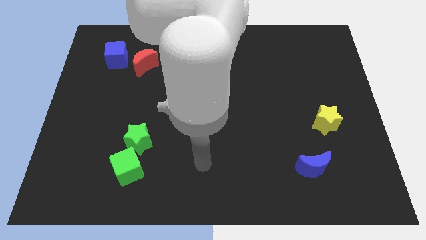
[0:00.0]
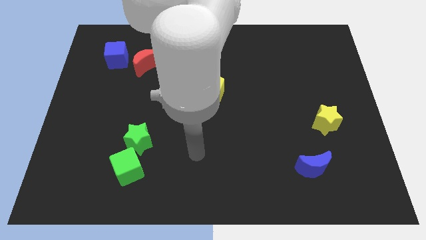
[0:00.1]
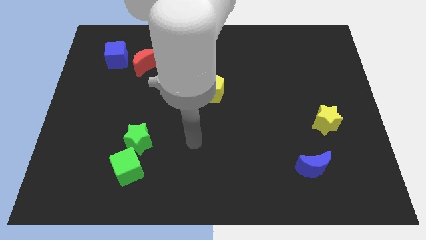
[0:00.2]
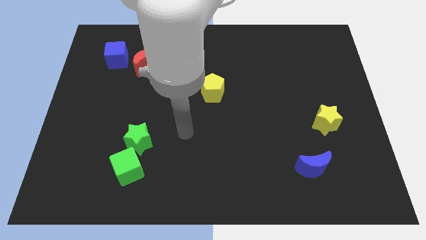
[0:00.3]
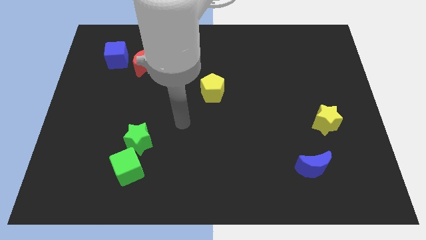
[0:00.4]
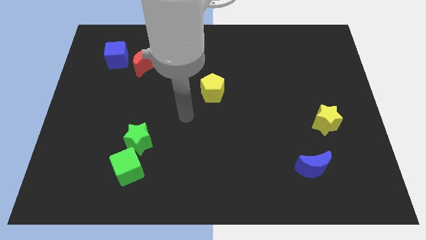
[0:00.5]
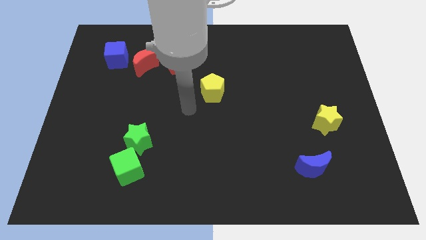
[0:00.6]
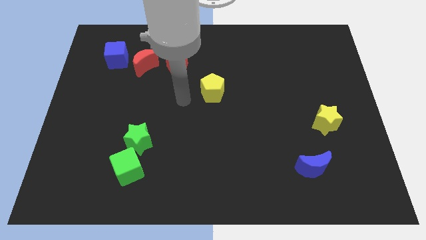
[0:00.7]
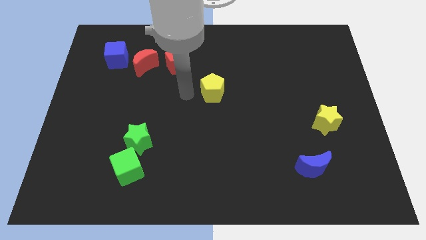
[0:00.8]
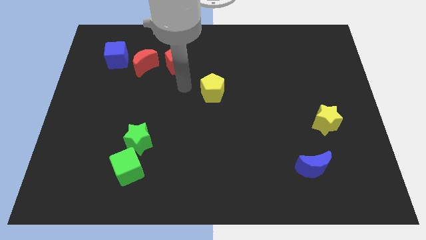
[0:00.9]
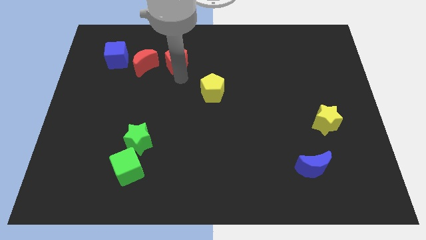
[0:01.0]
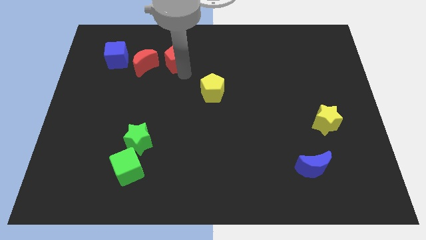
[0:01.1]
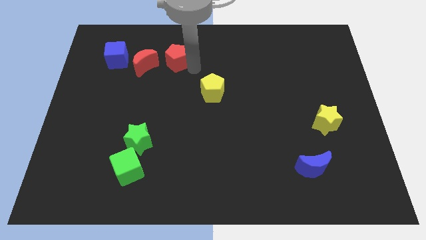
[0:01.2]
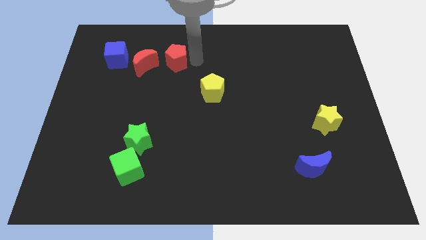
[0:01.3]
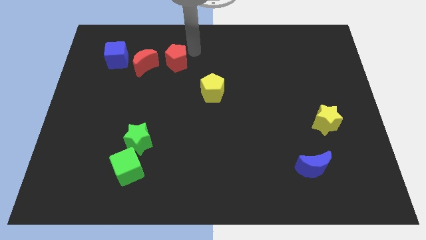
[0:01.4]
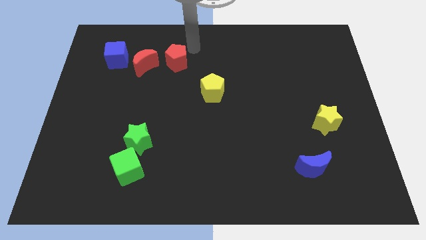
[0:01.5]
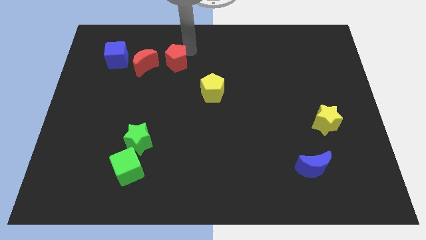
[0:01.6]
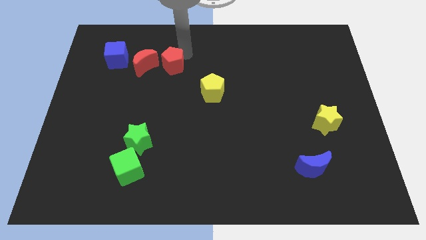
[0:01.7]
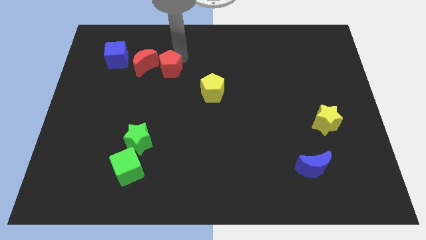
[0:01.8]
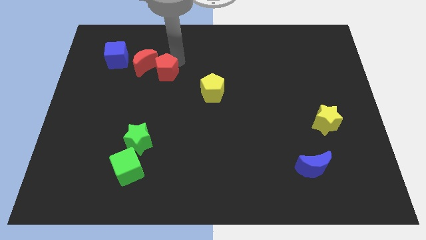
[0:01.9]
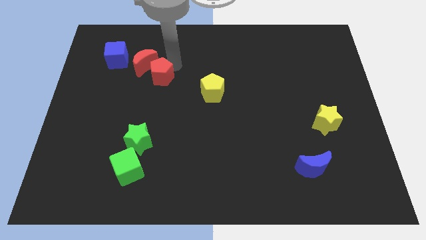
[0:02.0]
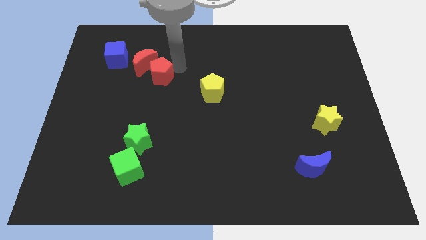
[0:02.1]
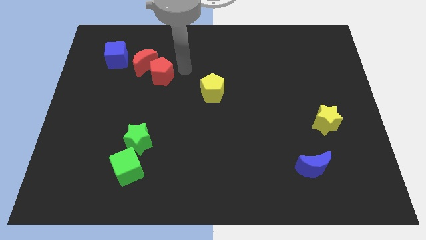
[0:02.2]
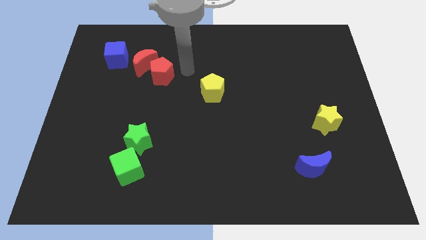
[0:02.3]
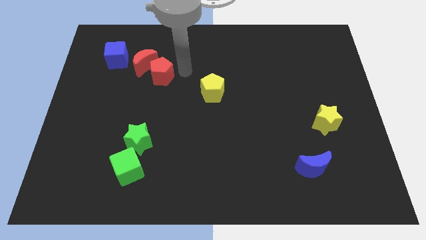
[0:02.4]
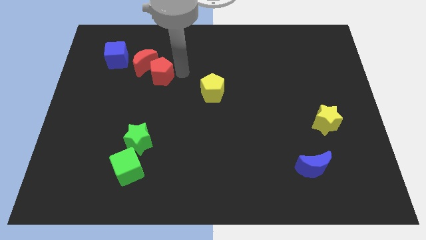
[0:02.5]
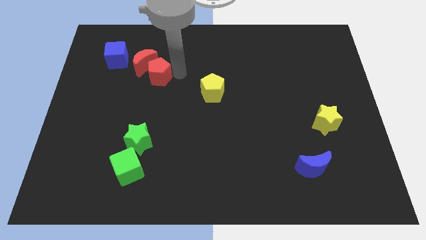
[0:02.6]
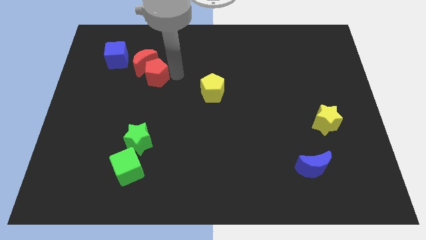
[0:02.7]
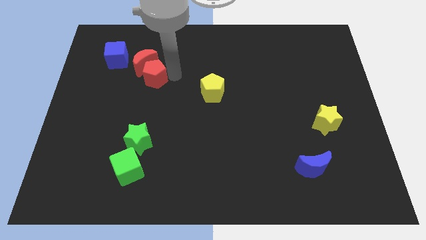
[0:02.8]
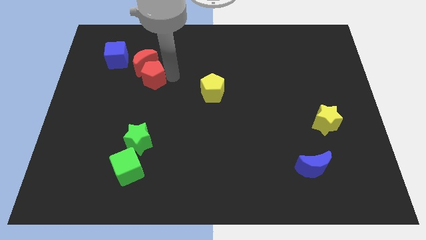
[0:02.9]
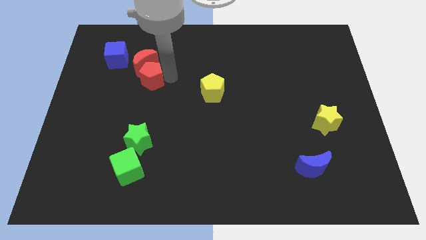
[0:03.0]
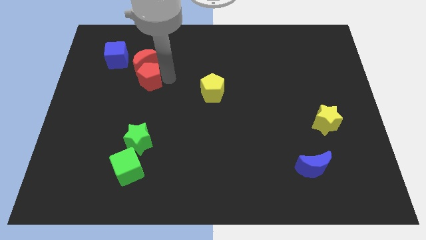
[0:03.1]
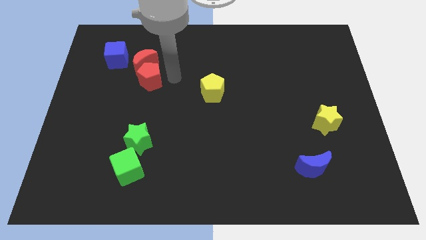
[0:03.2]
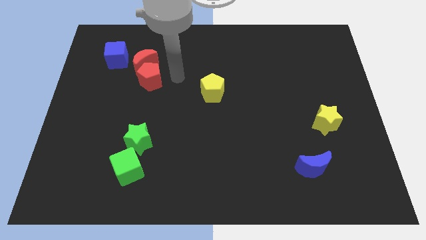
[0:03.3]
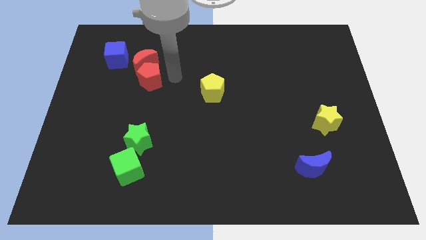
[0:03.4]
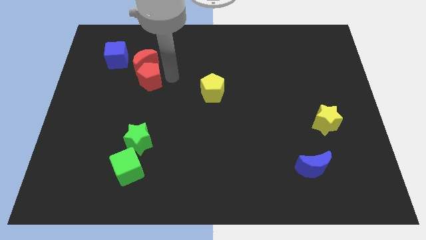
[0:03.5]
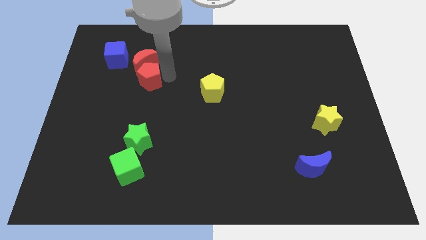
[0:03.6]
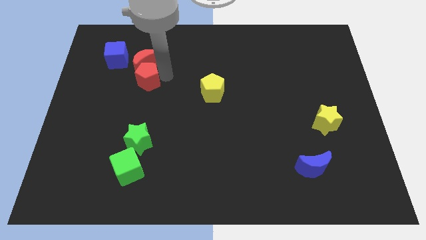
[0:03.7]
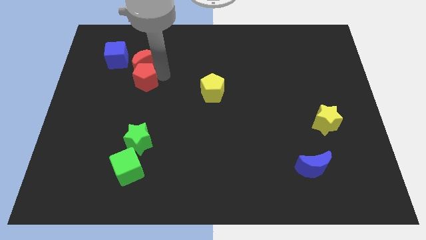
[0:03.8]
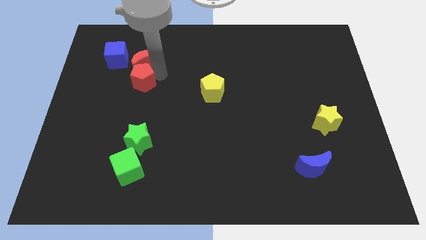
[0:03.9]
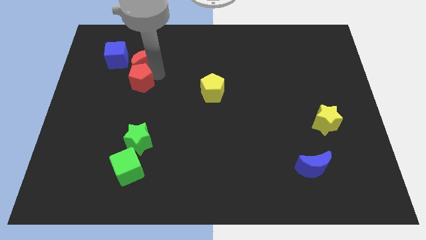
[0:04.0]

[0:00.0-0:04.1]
slightly slide the red pentagon to the left

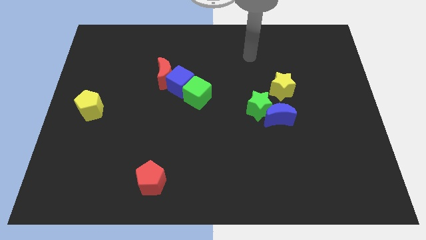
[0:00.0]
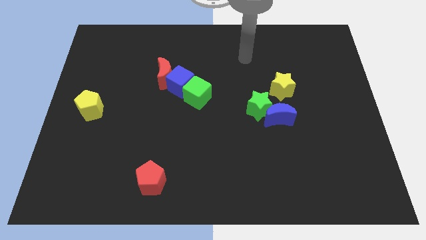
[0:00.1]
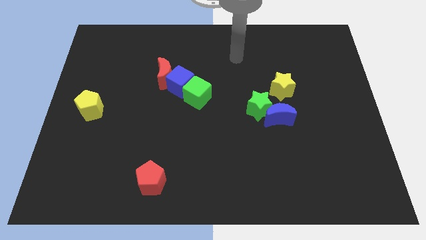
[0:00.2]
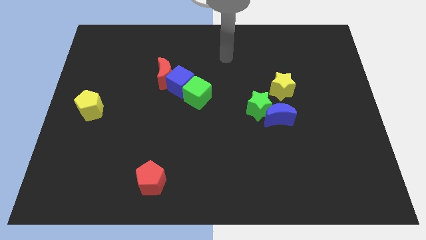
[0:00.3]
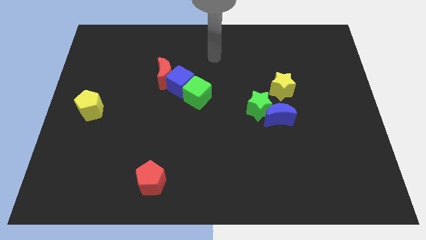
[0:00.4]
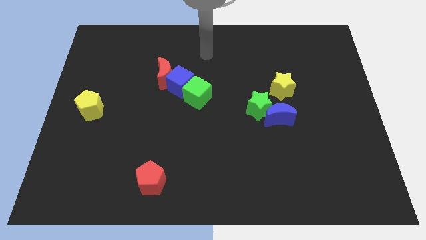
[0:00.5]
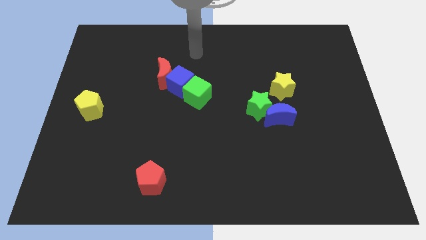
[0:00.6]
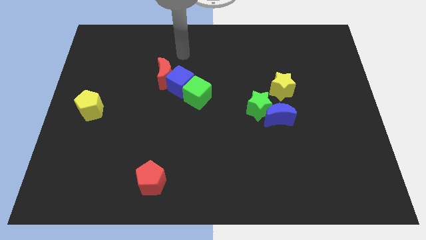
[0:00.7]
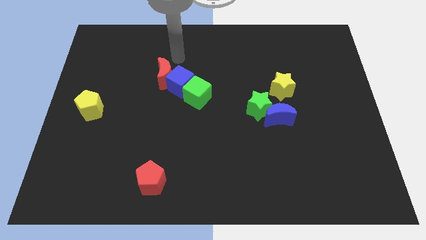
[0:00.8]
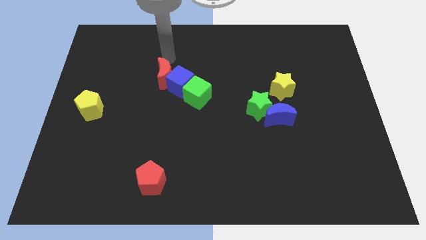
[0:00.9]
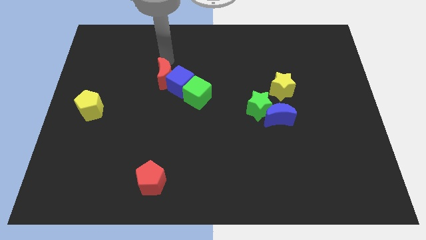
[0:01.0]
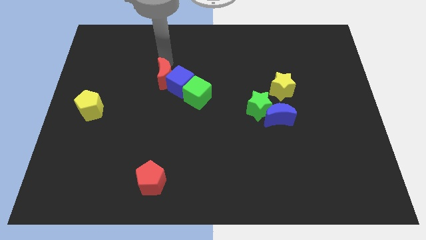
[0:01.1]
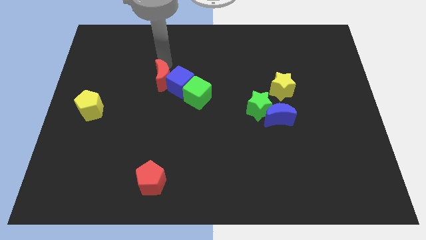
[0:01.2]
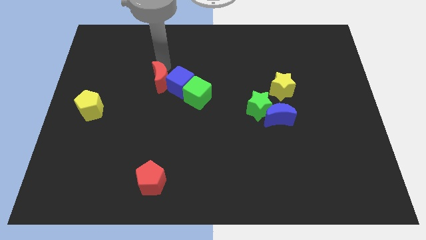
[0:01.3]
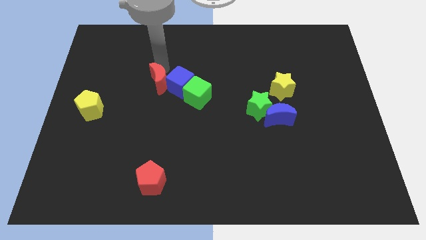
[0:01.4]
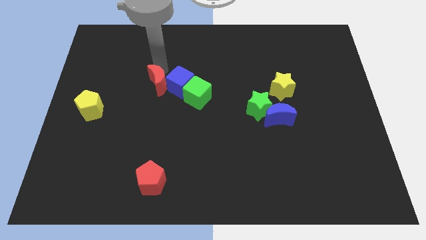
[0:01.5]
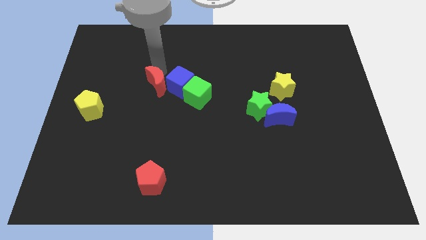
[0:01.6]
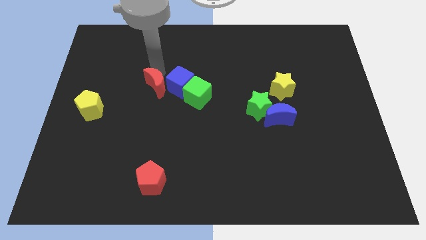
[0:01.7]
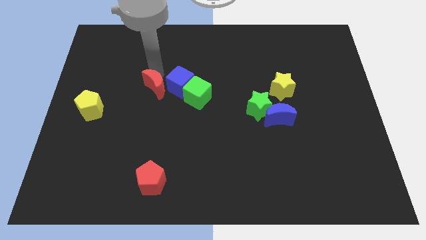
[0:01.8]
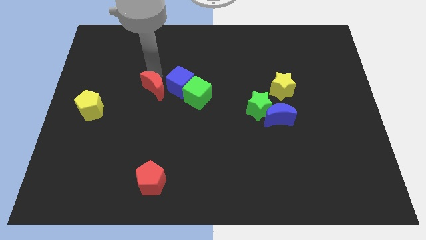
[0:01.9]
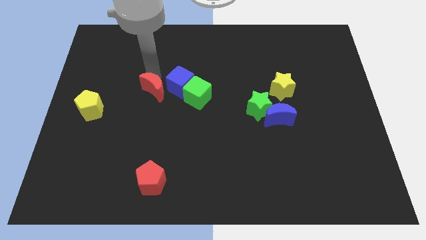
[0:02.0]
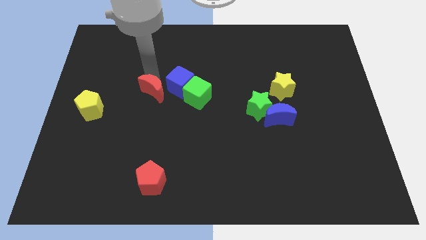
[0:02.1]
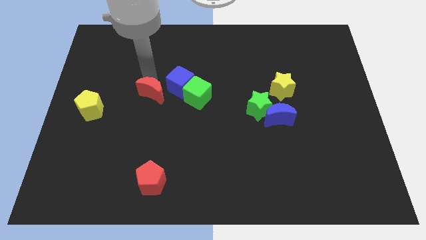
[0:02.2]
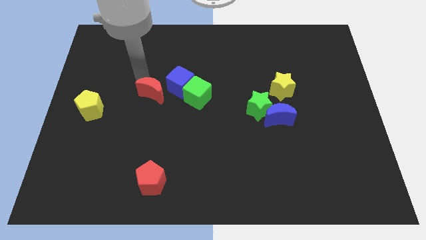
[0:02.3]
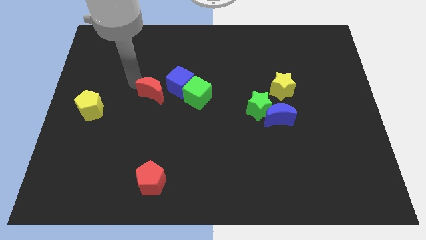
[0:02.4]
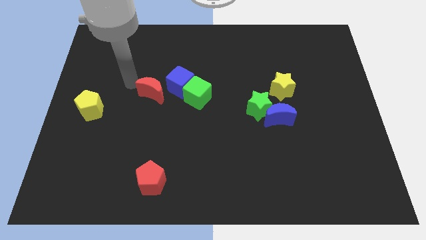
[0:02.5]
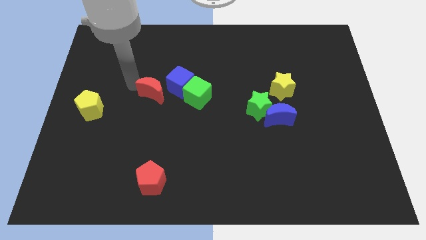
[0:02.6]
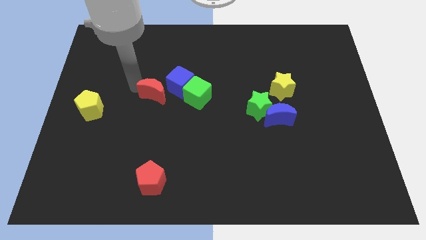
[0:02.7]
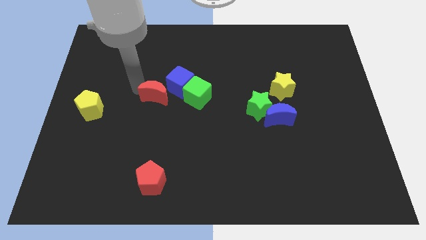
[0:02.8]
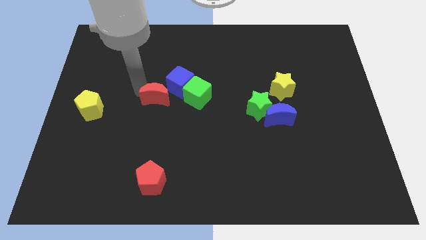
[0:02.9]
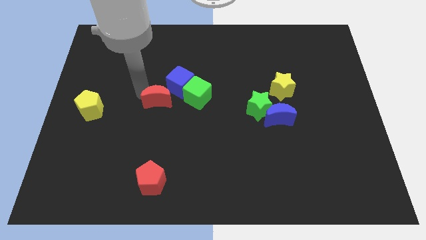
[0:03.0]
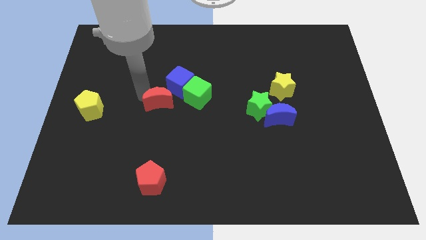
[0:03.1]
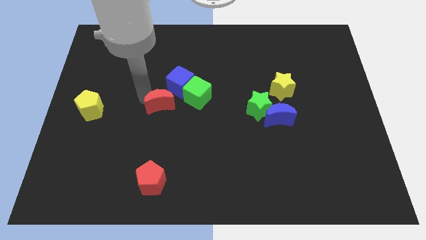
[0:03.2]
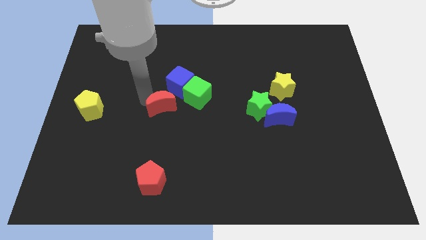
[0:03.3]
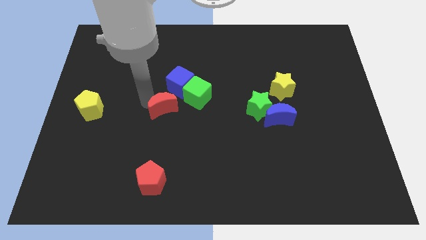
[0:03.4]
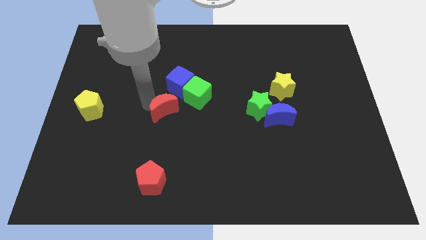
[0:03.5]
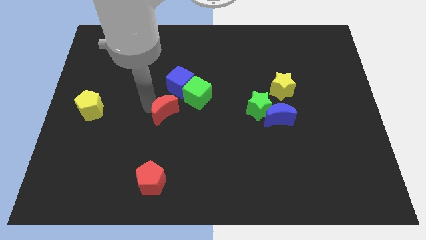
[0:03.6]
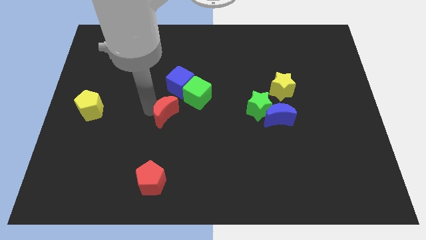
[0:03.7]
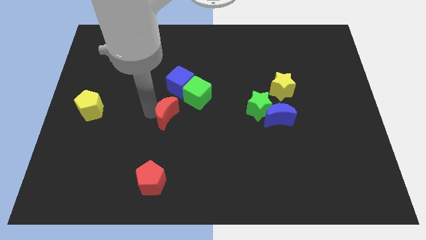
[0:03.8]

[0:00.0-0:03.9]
slide the red moon somewhat downwards and to the right
